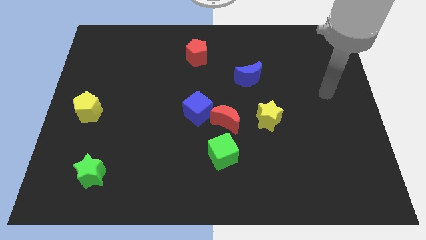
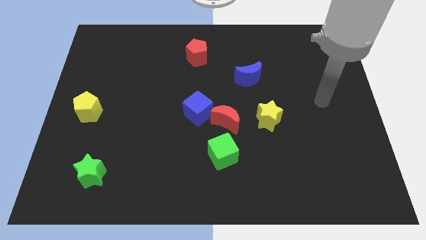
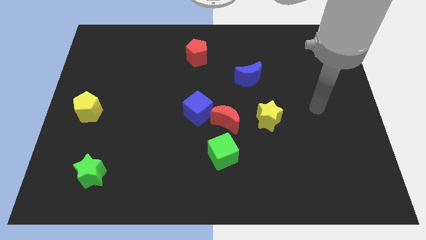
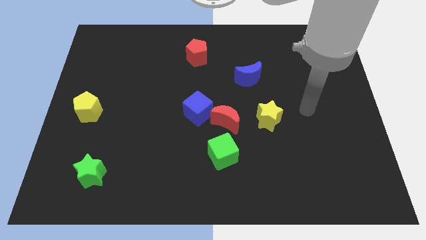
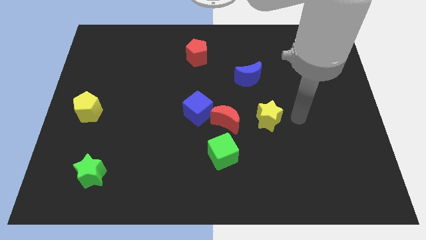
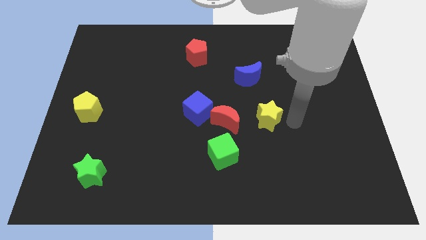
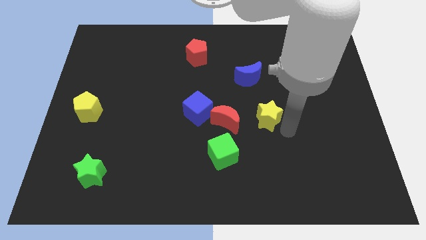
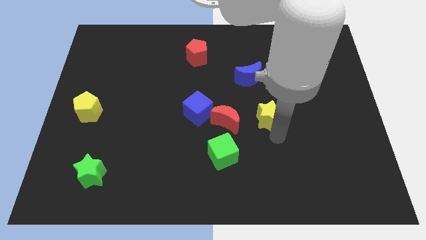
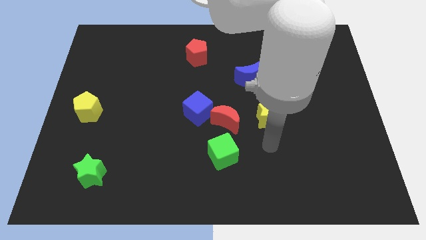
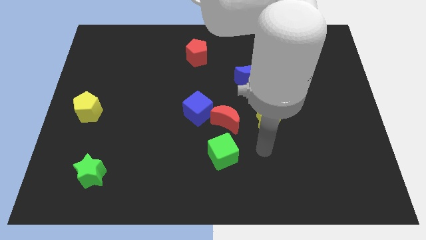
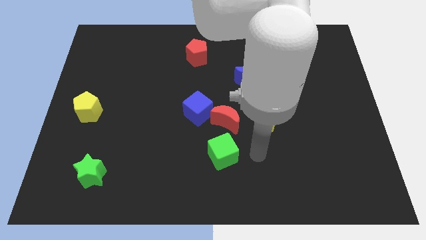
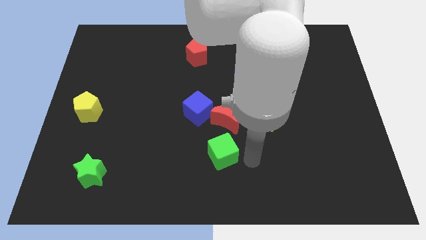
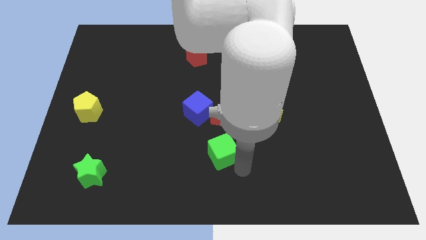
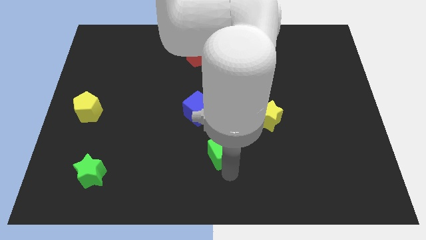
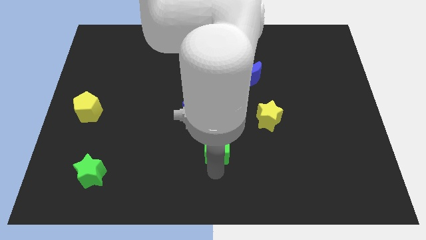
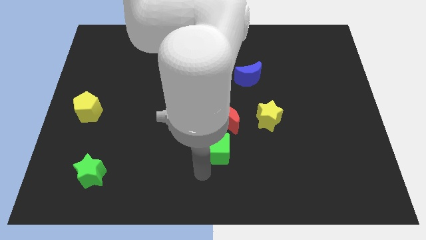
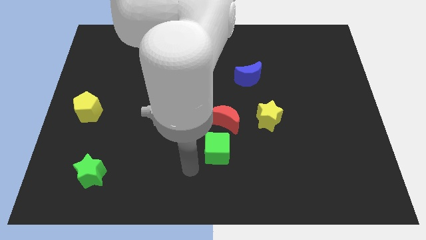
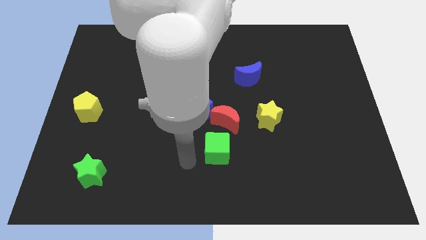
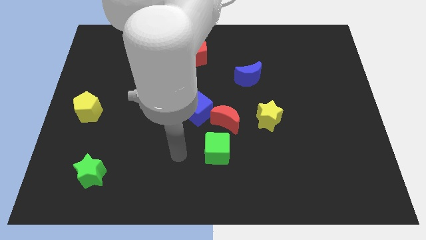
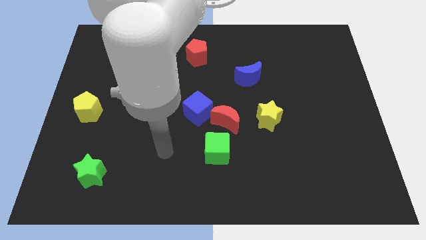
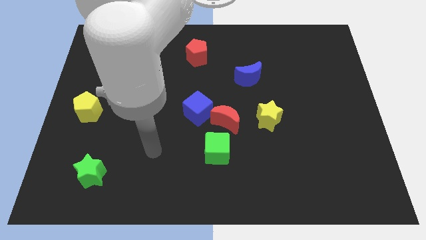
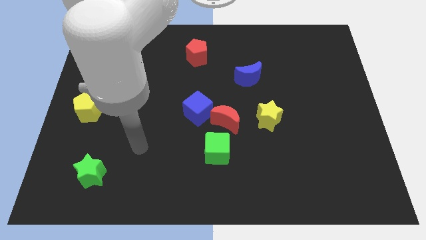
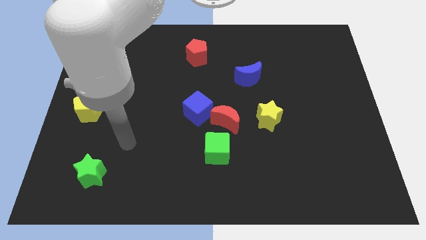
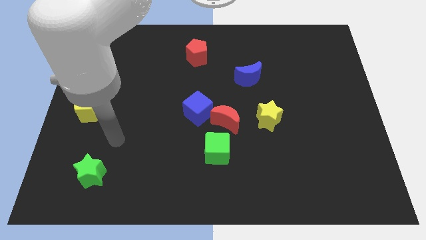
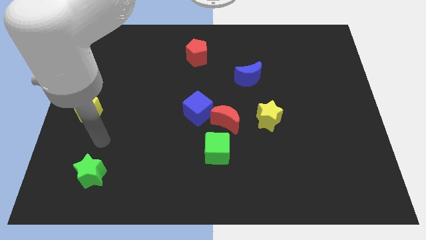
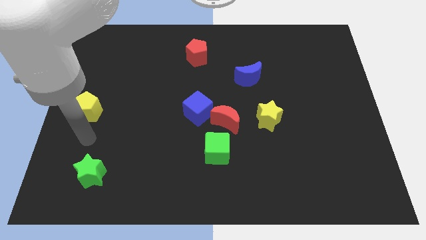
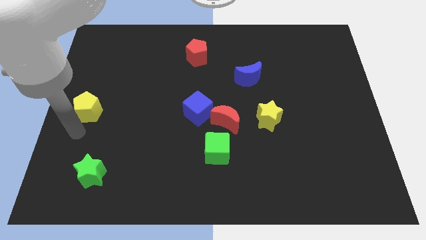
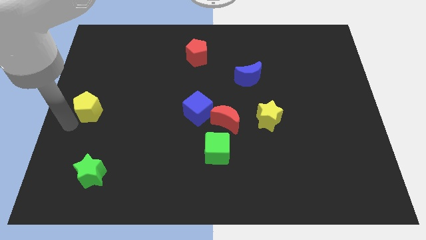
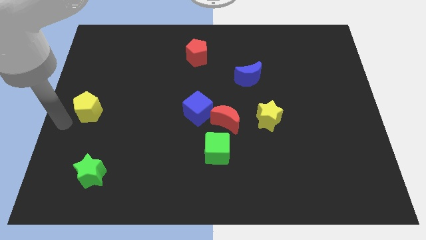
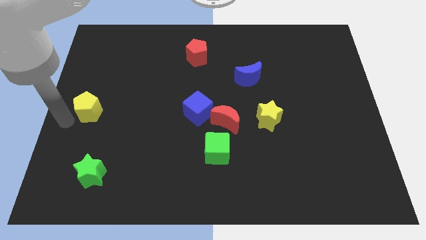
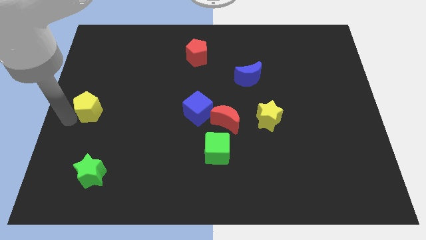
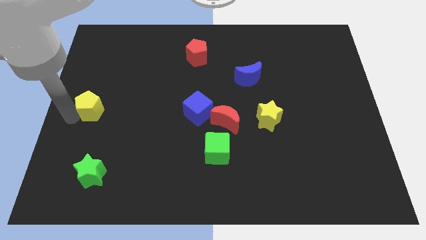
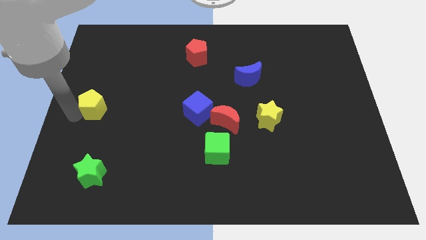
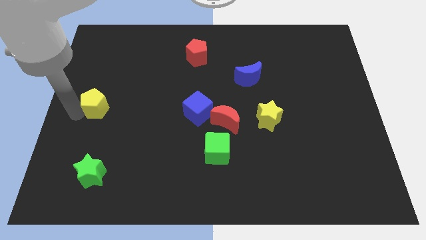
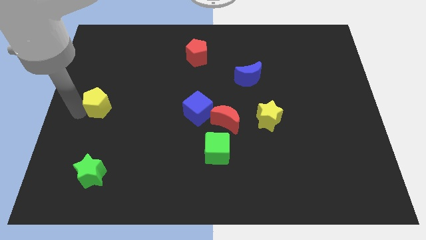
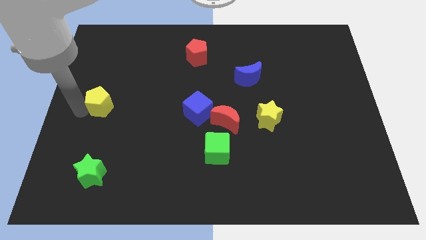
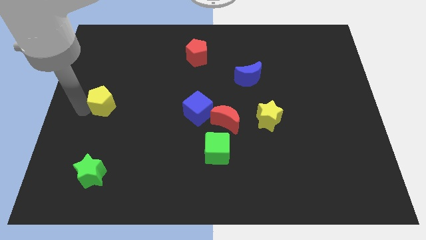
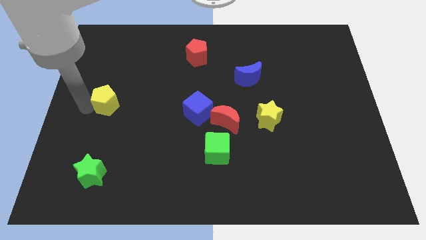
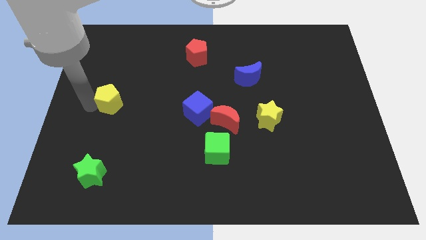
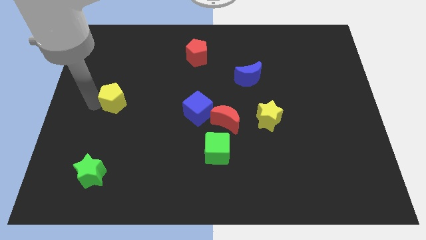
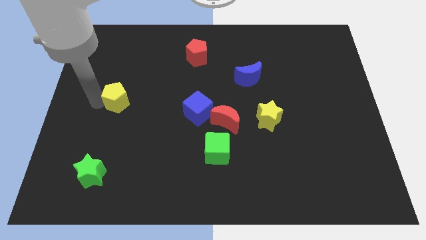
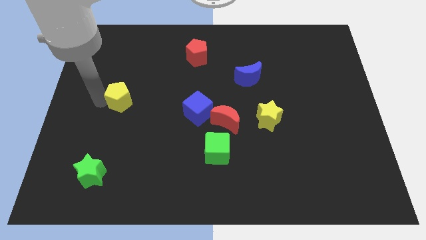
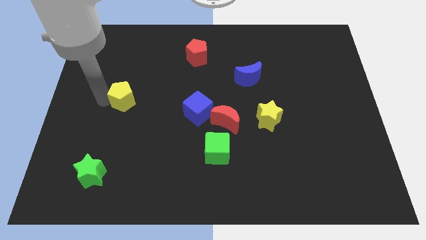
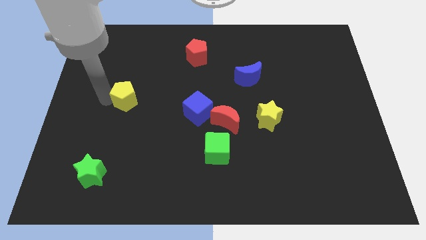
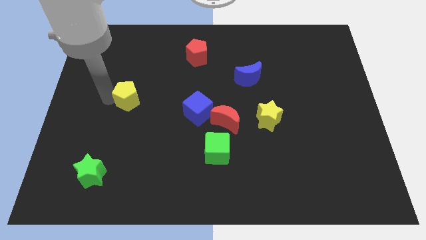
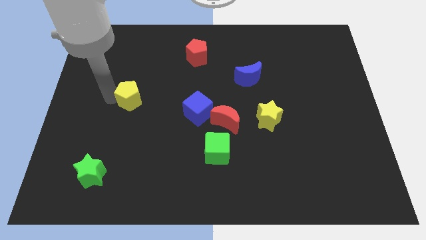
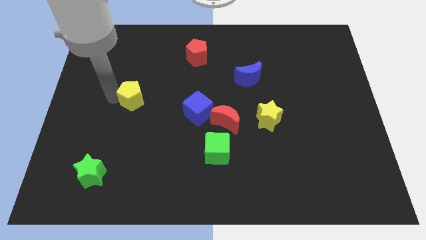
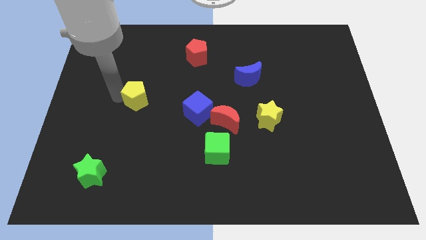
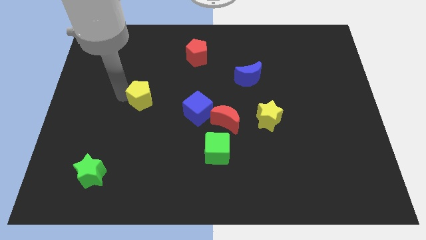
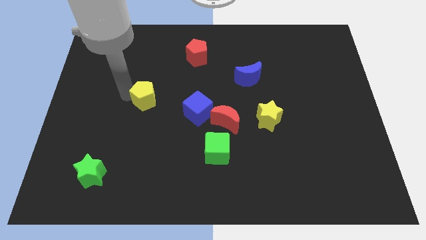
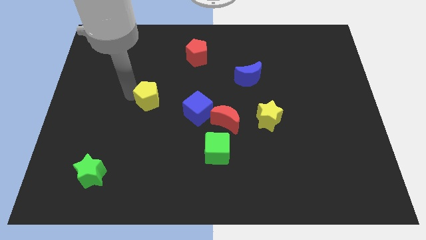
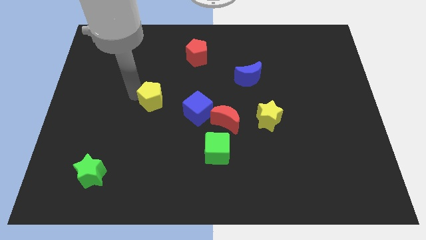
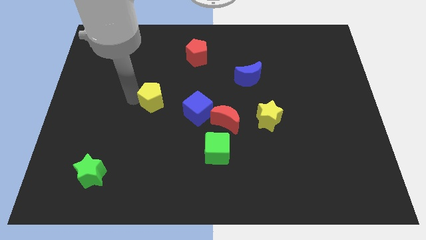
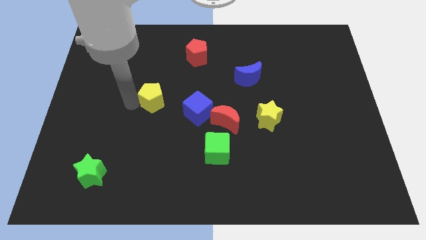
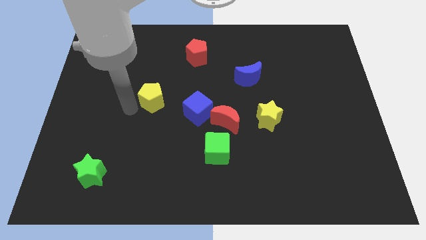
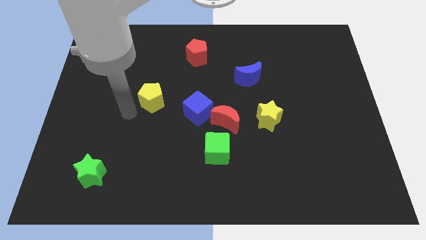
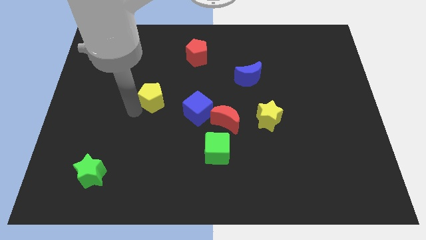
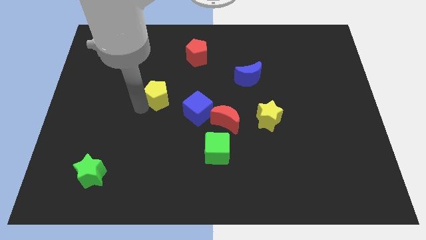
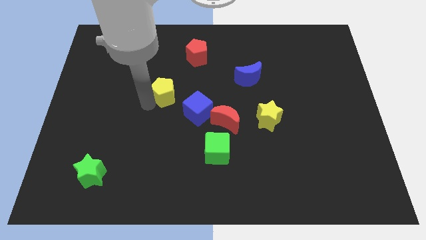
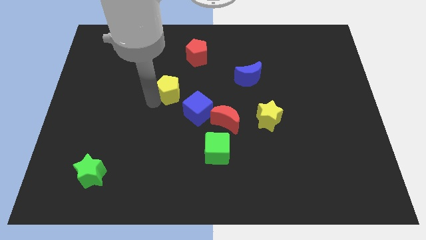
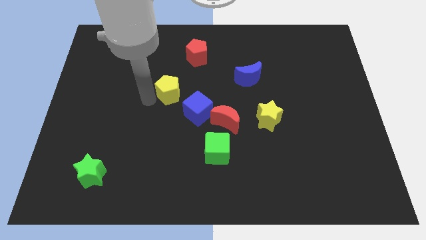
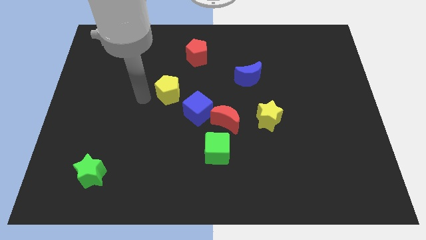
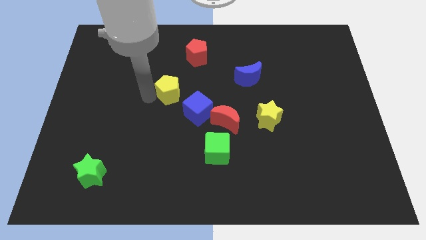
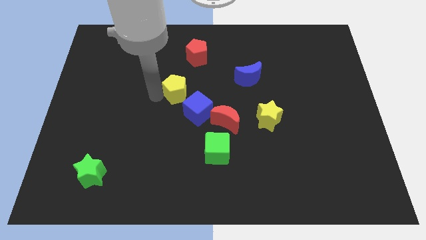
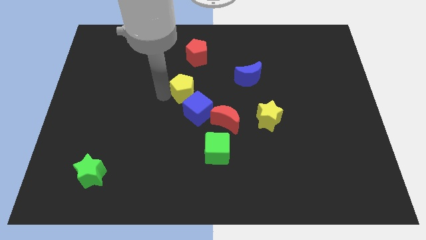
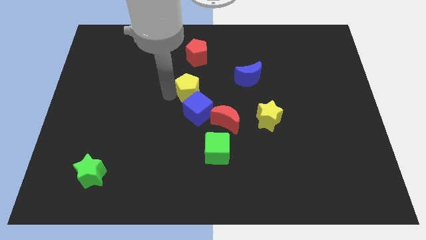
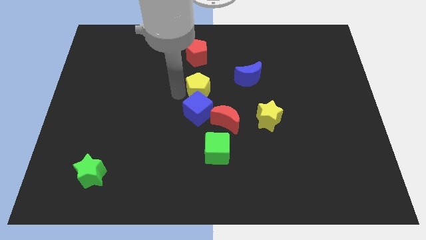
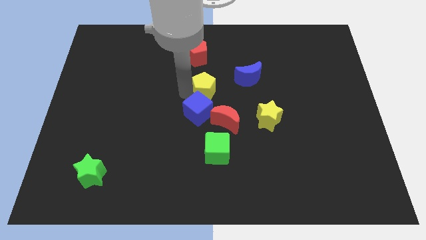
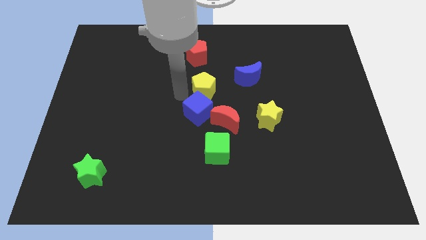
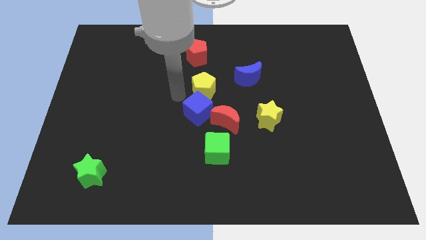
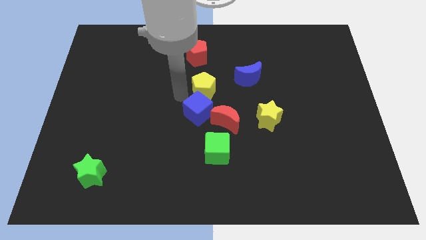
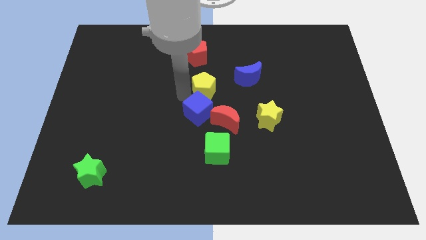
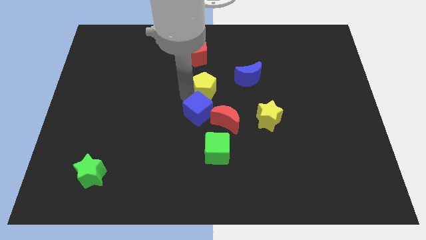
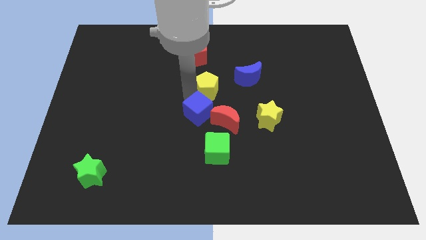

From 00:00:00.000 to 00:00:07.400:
push the yellow pentagon above the red moon
